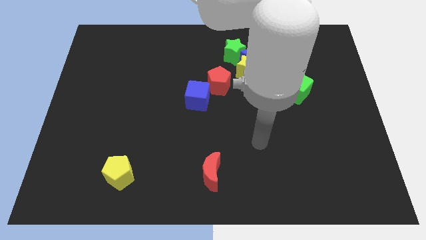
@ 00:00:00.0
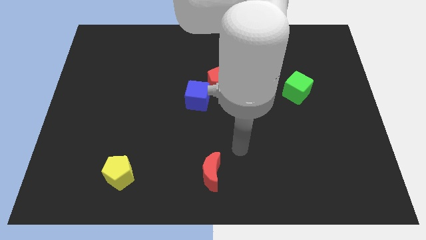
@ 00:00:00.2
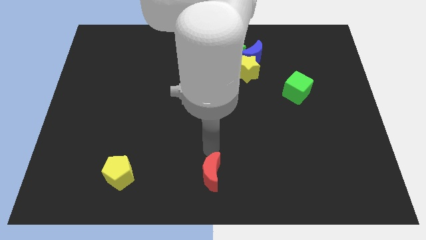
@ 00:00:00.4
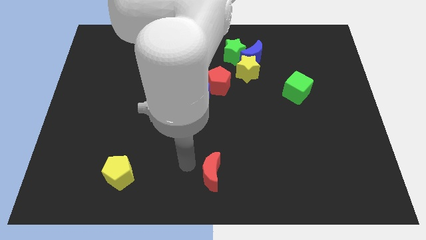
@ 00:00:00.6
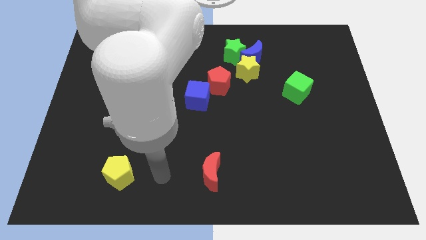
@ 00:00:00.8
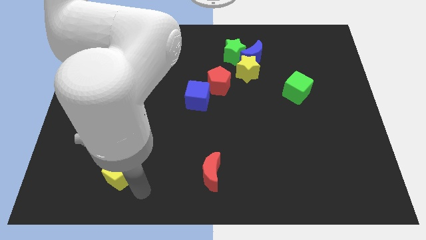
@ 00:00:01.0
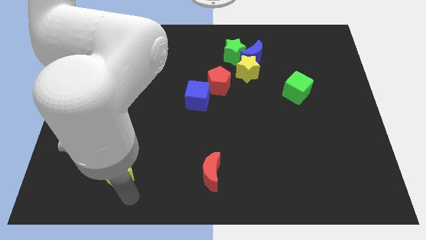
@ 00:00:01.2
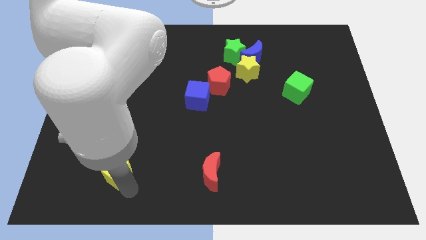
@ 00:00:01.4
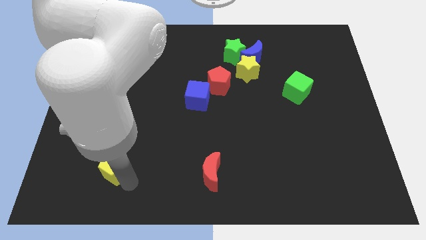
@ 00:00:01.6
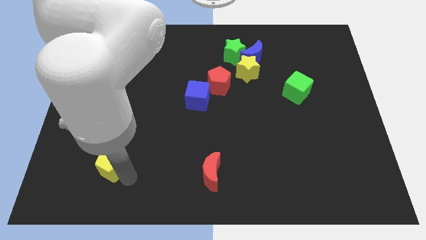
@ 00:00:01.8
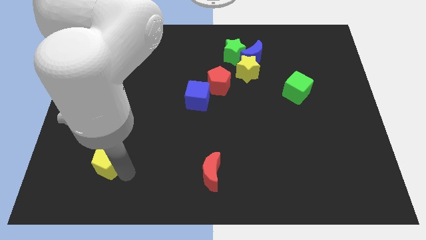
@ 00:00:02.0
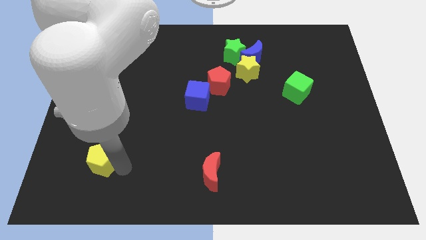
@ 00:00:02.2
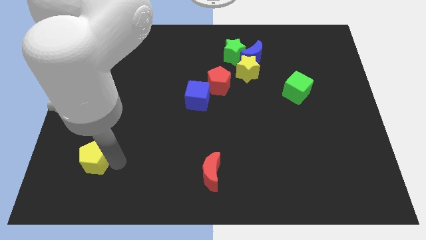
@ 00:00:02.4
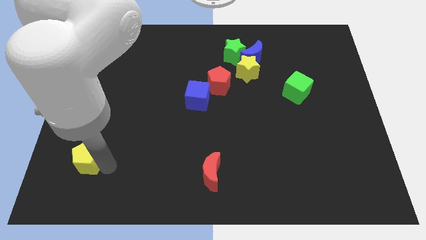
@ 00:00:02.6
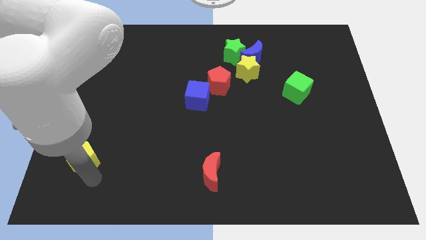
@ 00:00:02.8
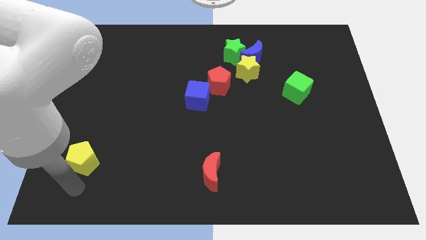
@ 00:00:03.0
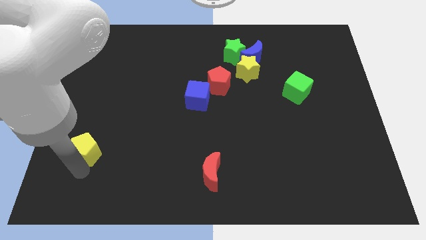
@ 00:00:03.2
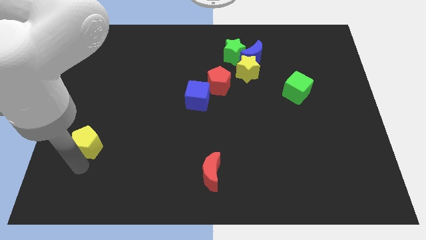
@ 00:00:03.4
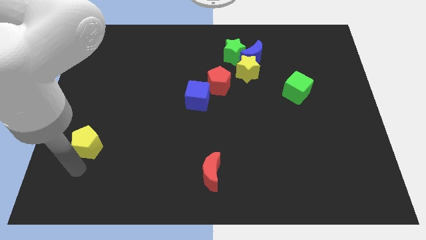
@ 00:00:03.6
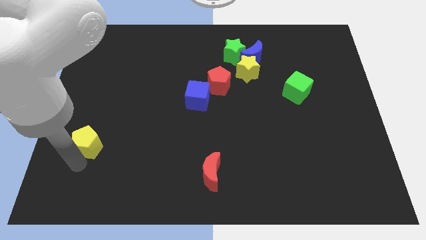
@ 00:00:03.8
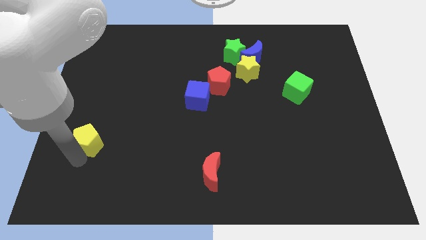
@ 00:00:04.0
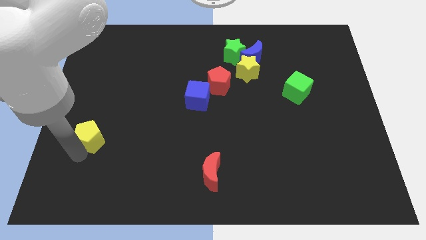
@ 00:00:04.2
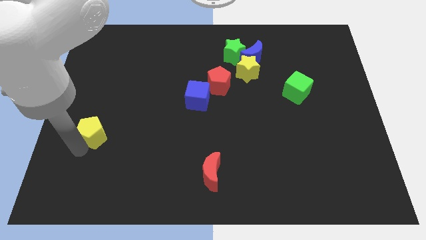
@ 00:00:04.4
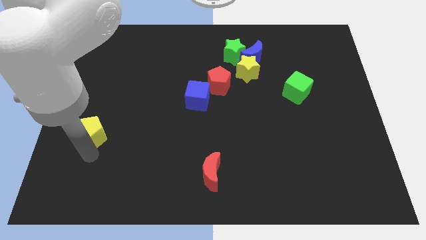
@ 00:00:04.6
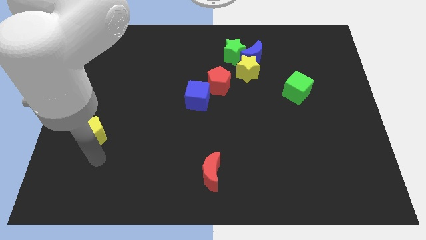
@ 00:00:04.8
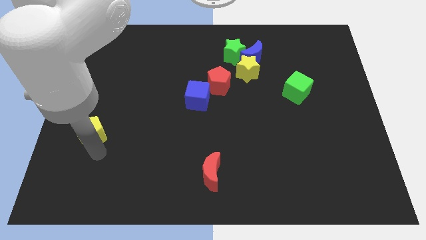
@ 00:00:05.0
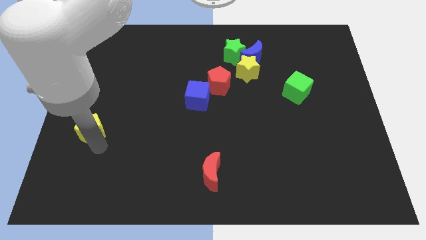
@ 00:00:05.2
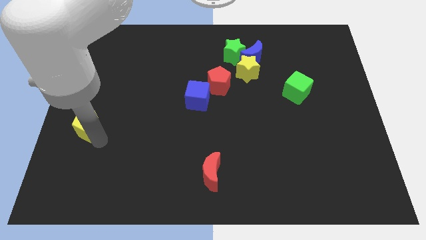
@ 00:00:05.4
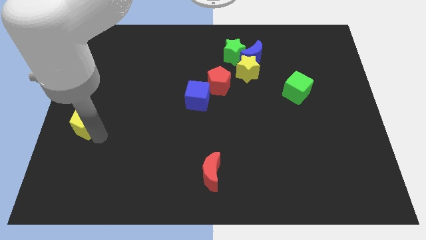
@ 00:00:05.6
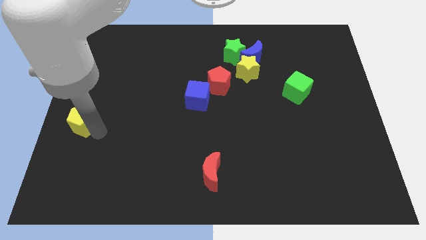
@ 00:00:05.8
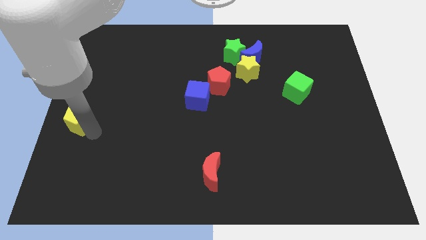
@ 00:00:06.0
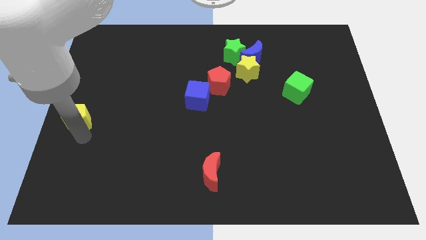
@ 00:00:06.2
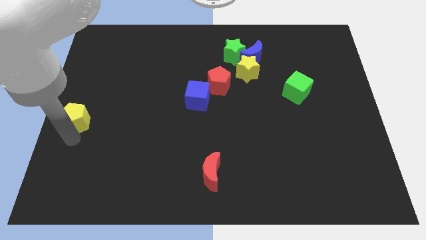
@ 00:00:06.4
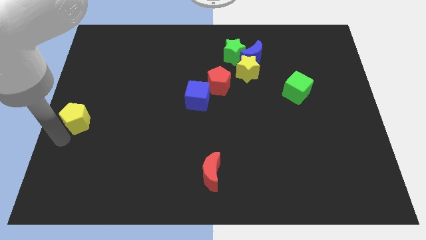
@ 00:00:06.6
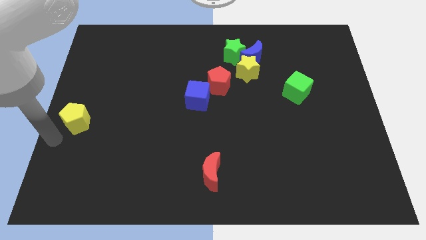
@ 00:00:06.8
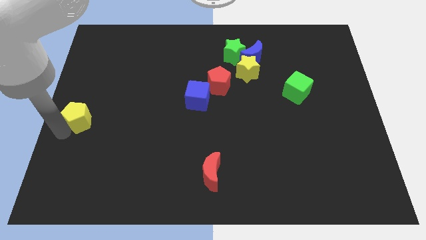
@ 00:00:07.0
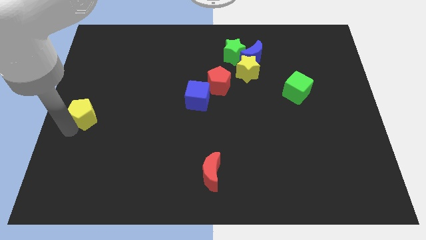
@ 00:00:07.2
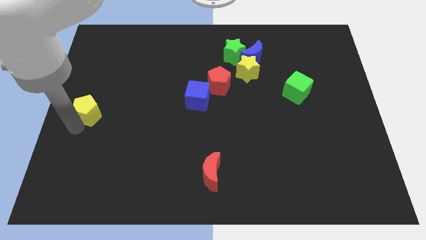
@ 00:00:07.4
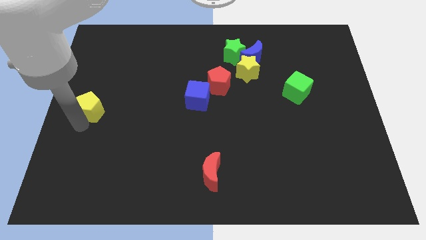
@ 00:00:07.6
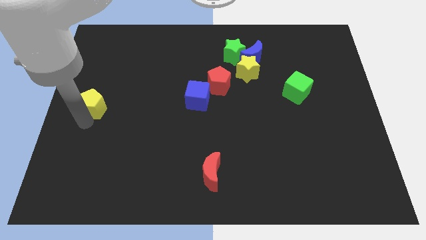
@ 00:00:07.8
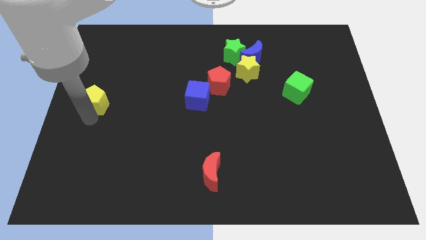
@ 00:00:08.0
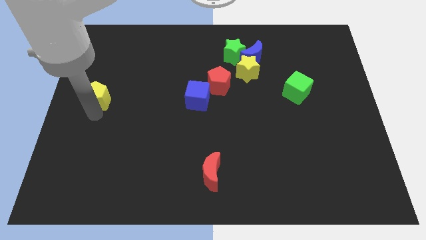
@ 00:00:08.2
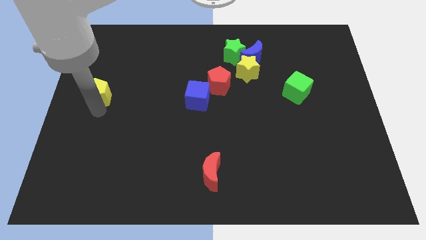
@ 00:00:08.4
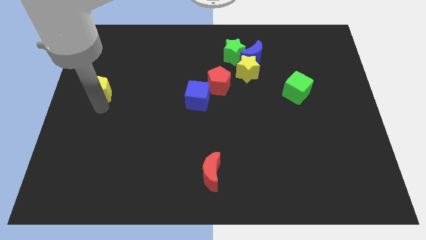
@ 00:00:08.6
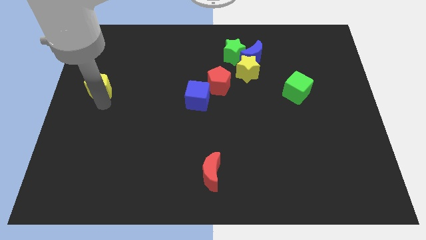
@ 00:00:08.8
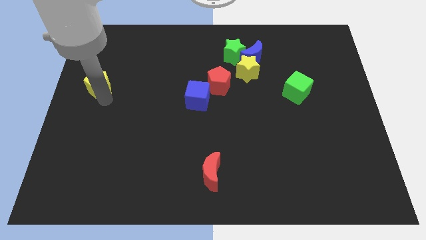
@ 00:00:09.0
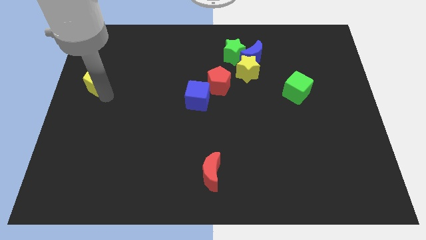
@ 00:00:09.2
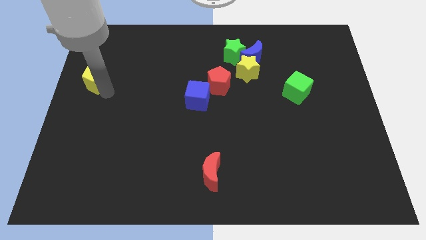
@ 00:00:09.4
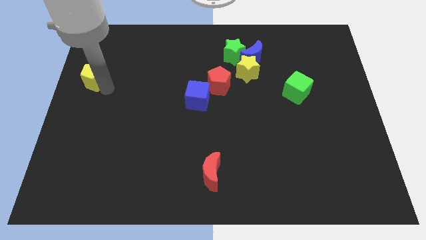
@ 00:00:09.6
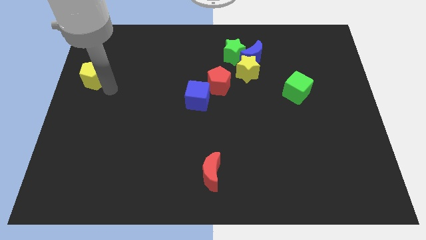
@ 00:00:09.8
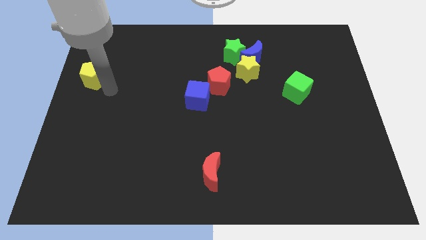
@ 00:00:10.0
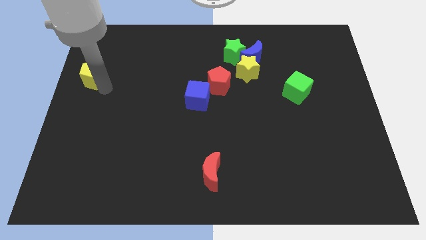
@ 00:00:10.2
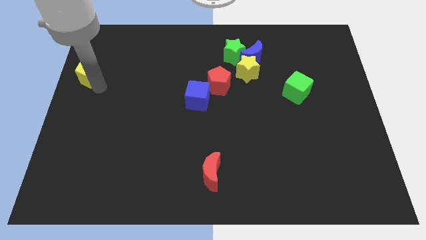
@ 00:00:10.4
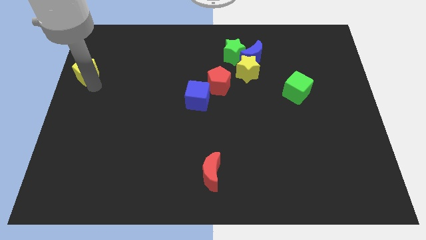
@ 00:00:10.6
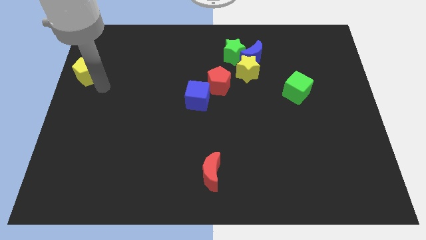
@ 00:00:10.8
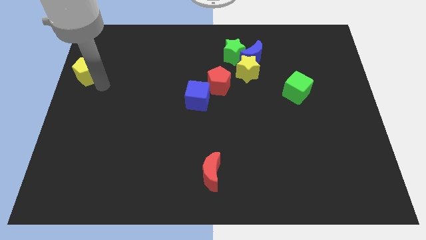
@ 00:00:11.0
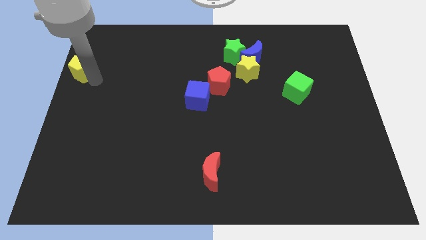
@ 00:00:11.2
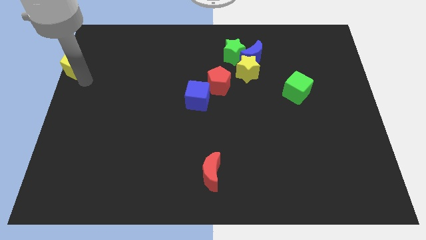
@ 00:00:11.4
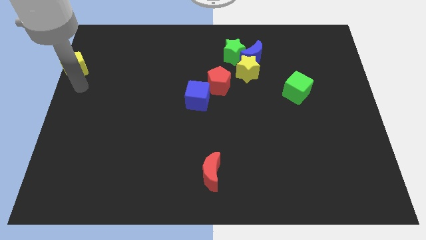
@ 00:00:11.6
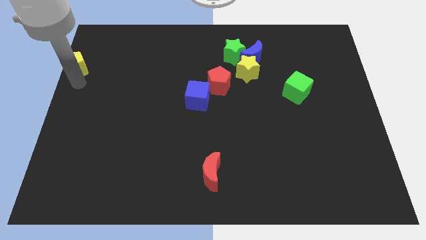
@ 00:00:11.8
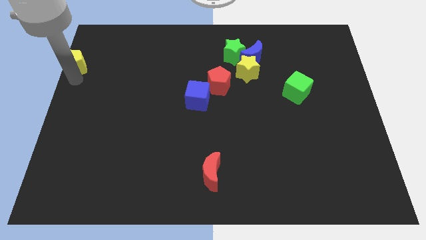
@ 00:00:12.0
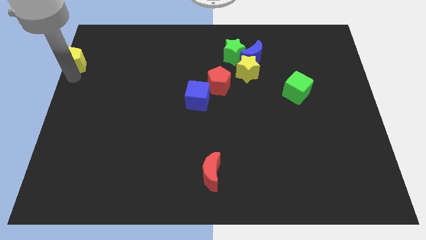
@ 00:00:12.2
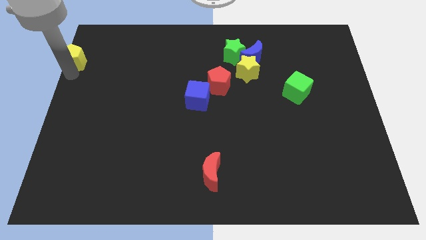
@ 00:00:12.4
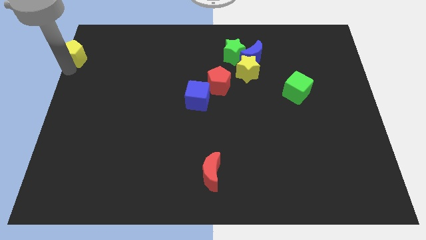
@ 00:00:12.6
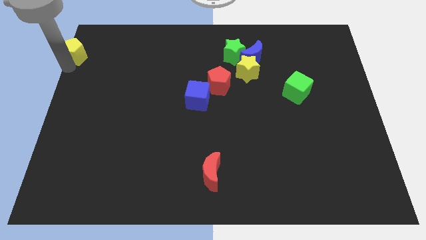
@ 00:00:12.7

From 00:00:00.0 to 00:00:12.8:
slide the yellow pentagon to the top left
